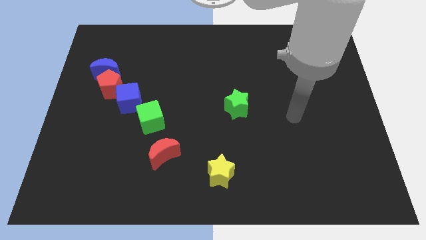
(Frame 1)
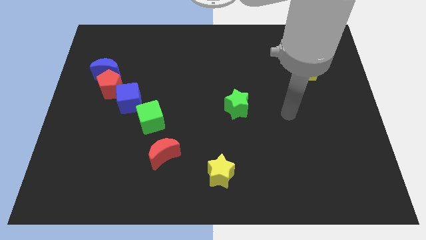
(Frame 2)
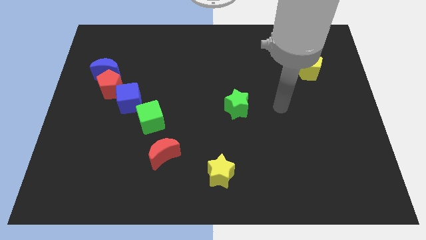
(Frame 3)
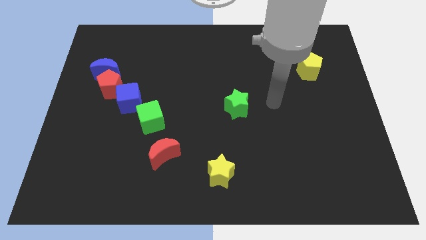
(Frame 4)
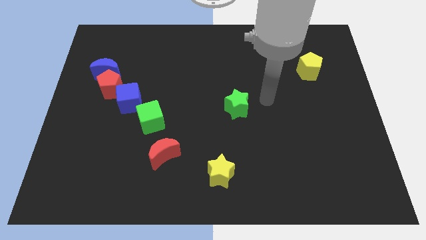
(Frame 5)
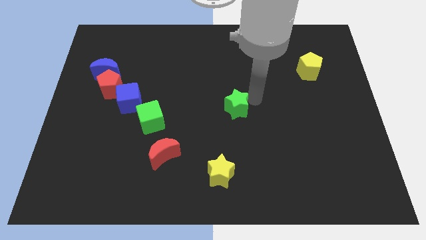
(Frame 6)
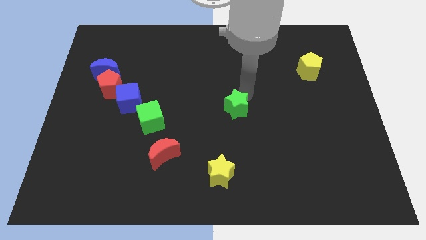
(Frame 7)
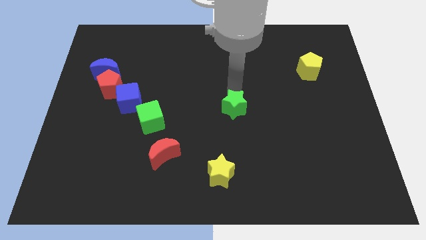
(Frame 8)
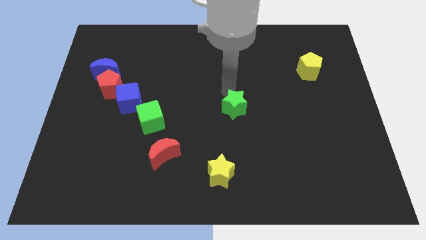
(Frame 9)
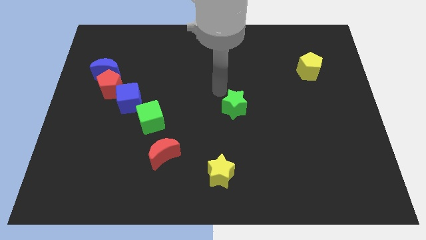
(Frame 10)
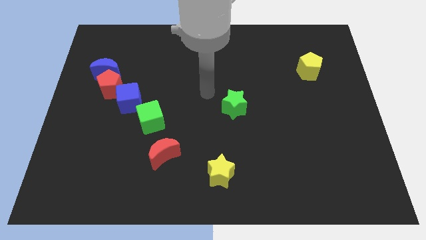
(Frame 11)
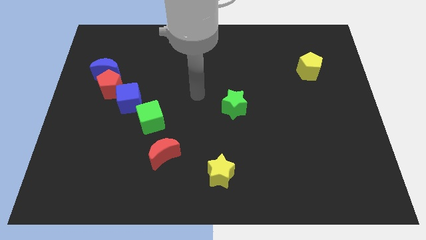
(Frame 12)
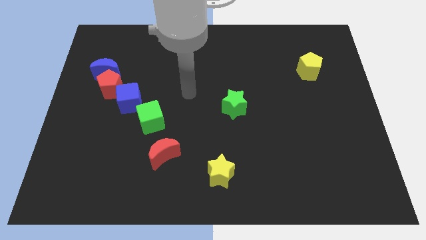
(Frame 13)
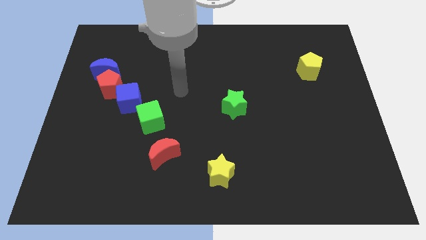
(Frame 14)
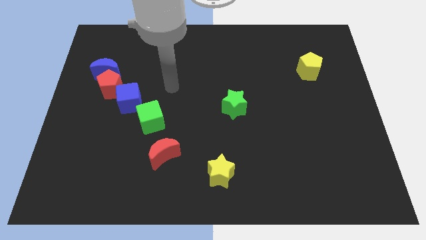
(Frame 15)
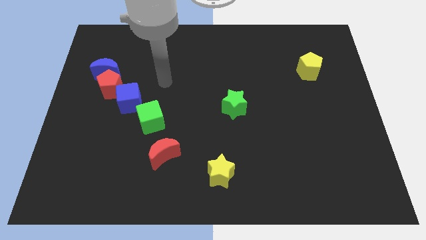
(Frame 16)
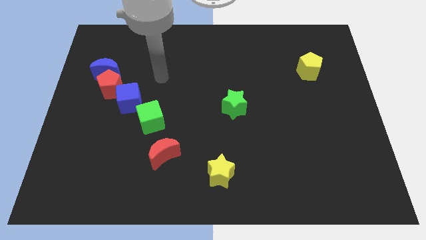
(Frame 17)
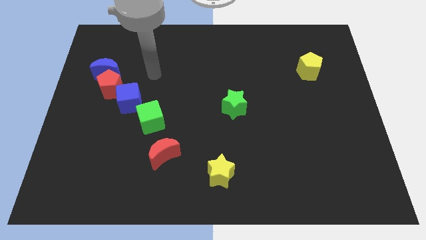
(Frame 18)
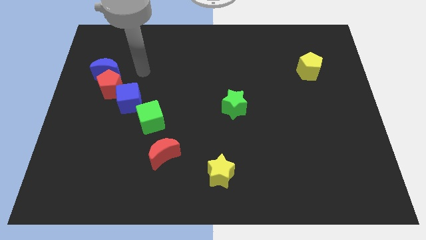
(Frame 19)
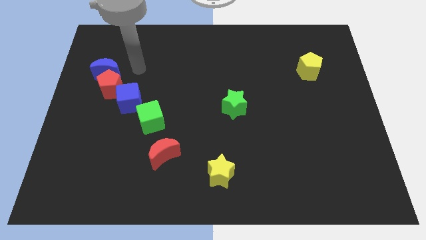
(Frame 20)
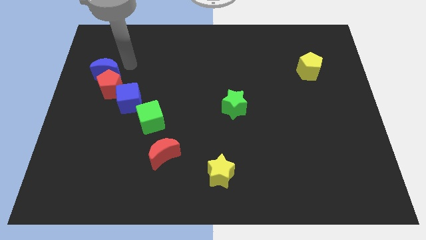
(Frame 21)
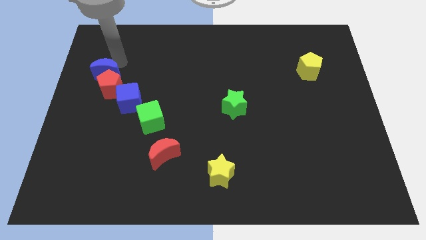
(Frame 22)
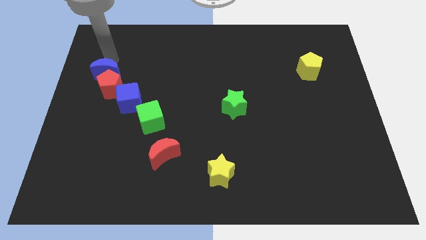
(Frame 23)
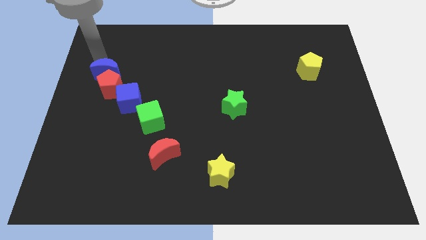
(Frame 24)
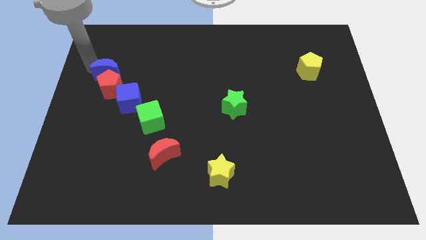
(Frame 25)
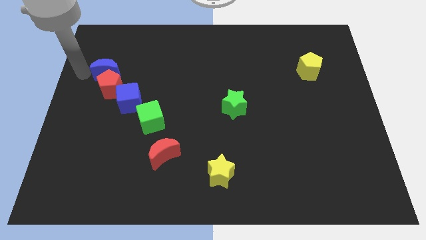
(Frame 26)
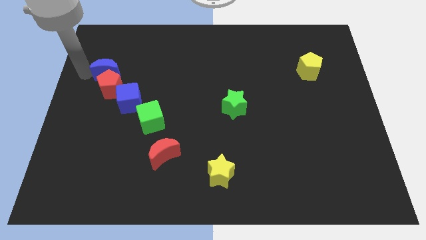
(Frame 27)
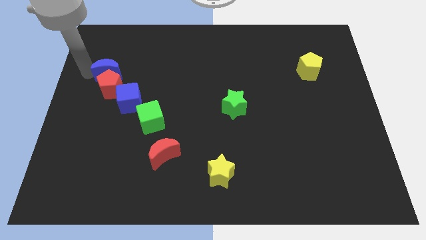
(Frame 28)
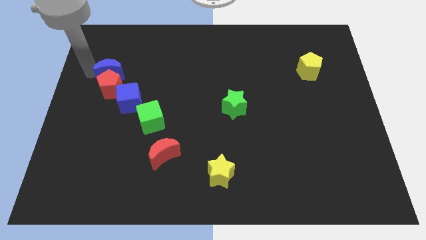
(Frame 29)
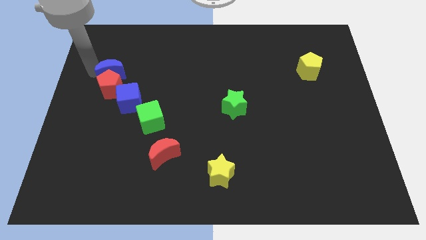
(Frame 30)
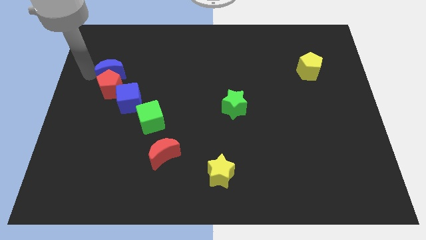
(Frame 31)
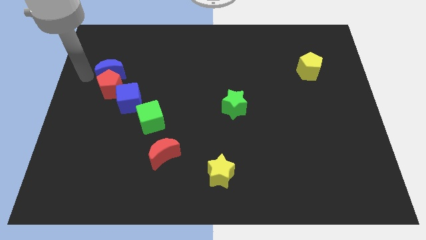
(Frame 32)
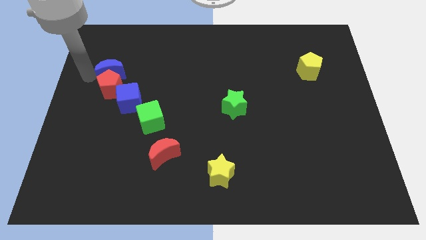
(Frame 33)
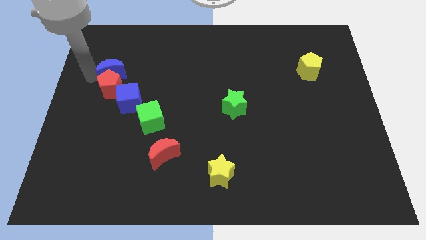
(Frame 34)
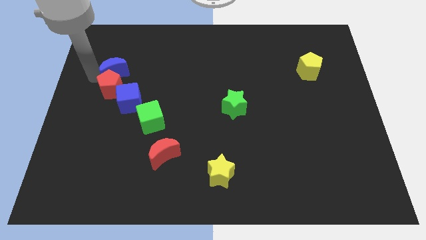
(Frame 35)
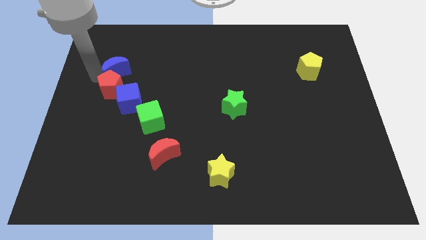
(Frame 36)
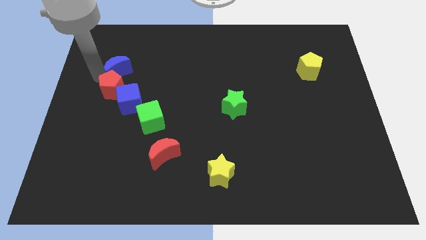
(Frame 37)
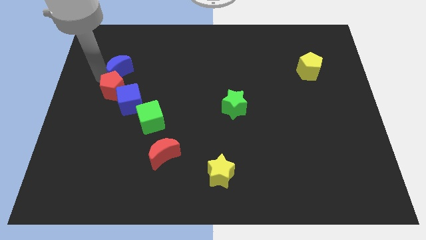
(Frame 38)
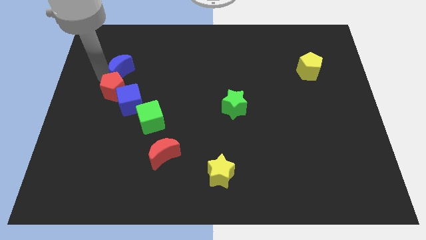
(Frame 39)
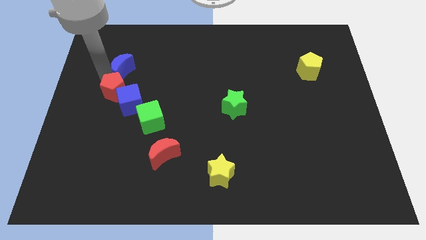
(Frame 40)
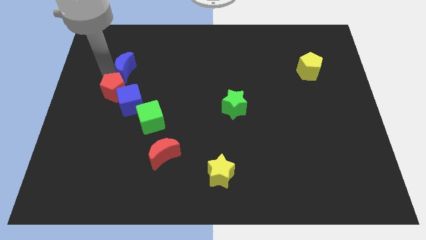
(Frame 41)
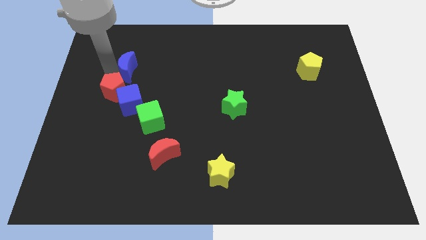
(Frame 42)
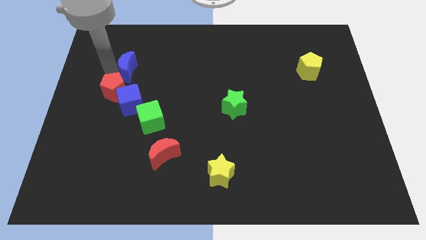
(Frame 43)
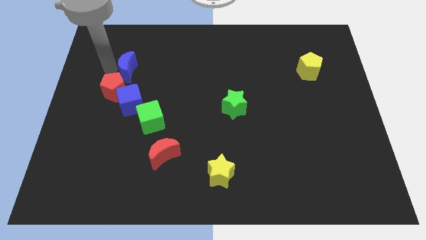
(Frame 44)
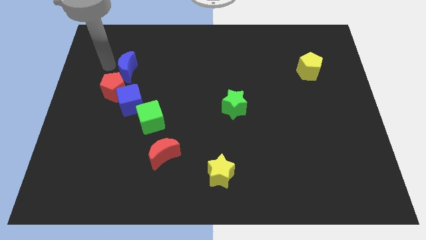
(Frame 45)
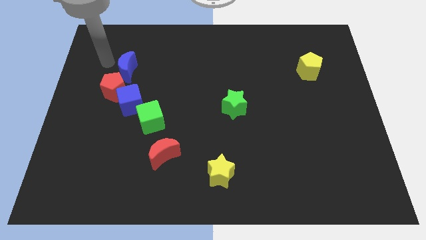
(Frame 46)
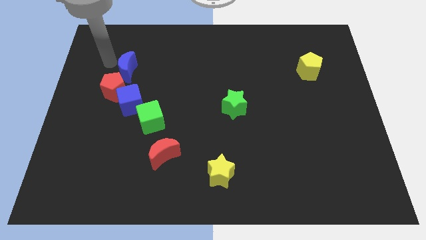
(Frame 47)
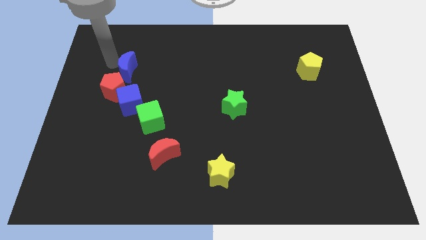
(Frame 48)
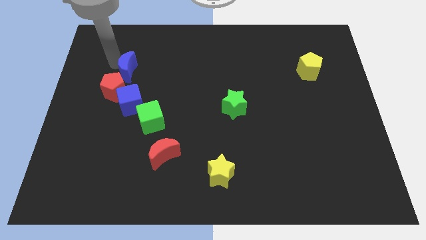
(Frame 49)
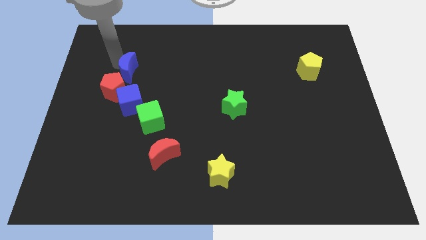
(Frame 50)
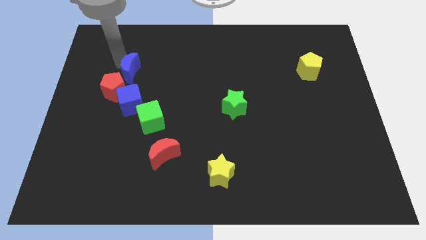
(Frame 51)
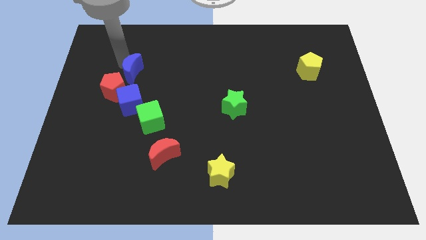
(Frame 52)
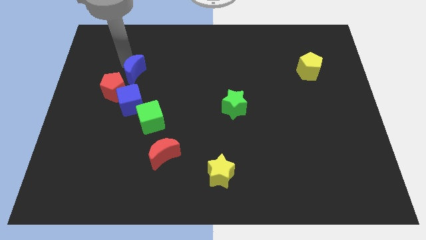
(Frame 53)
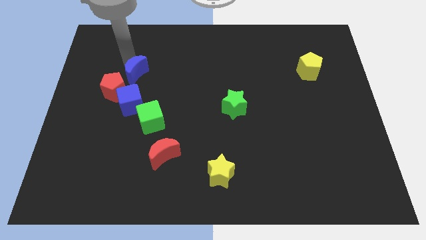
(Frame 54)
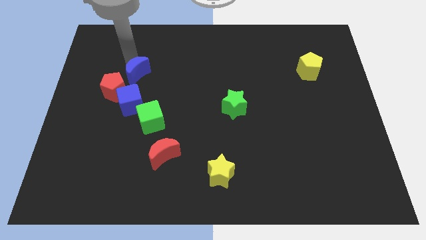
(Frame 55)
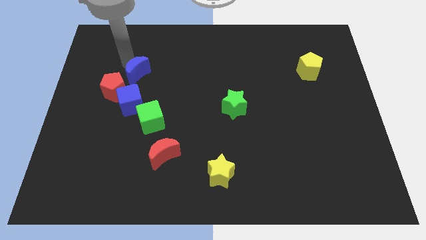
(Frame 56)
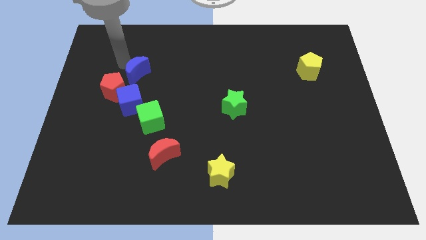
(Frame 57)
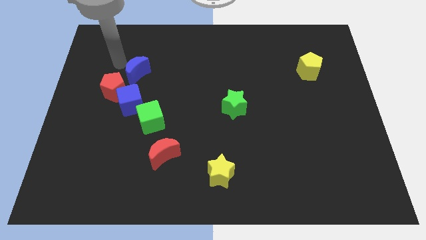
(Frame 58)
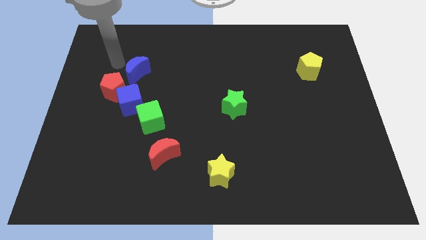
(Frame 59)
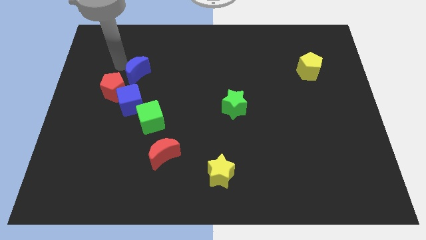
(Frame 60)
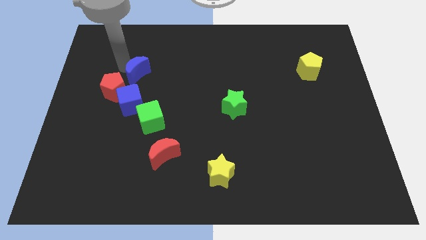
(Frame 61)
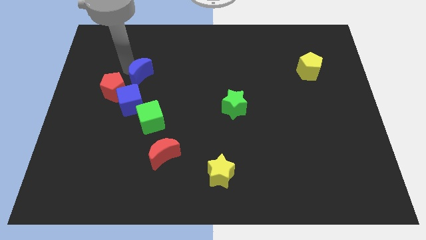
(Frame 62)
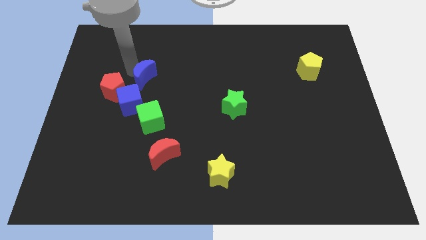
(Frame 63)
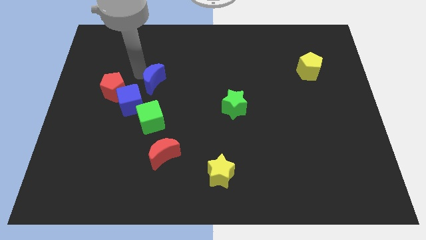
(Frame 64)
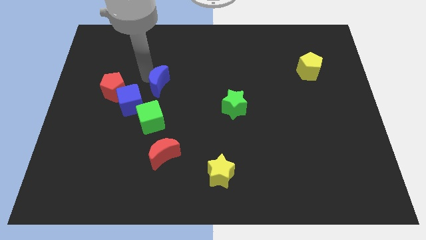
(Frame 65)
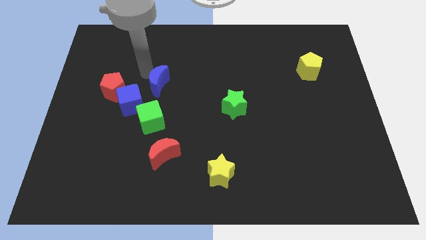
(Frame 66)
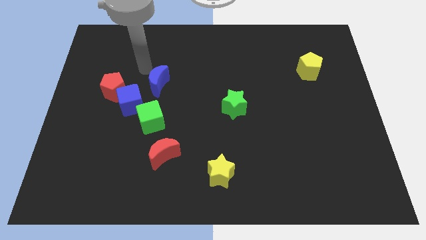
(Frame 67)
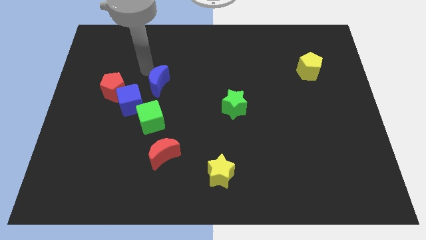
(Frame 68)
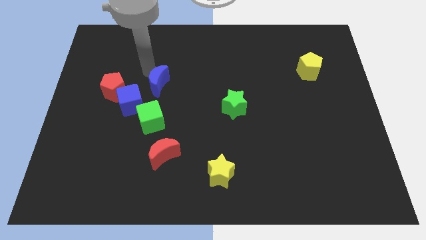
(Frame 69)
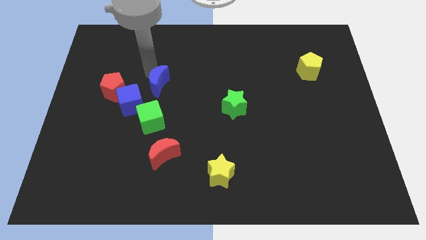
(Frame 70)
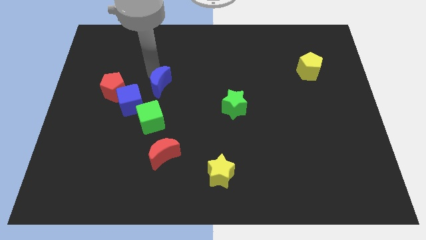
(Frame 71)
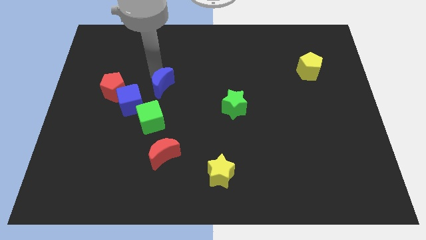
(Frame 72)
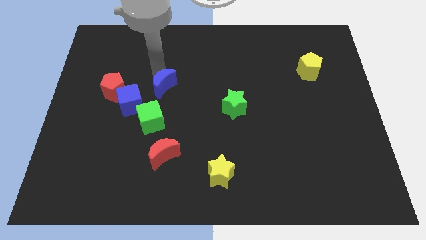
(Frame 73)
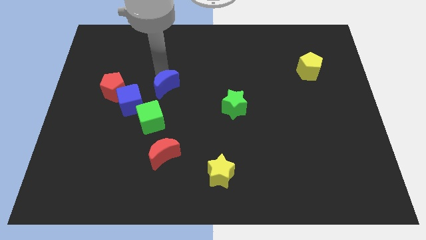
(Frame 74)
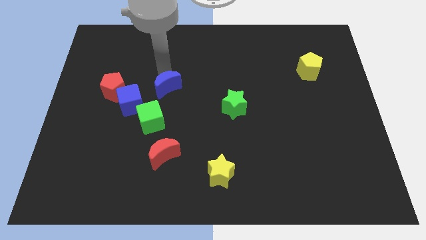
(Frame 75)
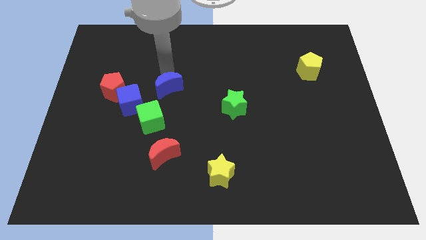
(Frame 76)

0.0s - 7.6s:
push the blue moon to the top right of the green cube
